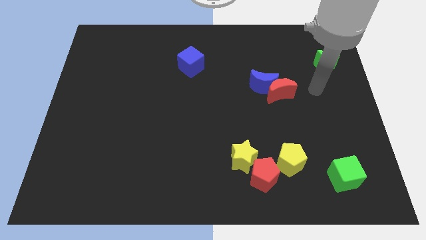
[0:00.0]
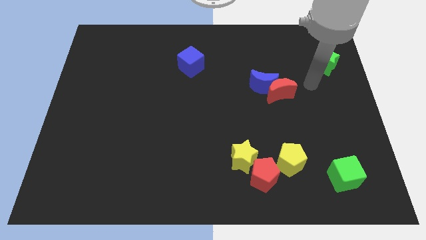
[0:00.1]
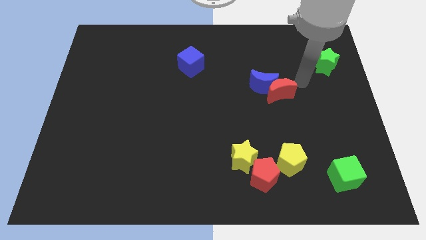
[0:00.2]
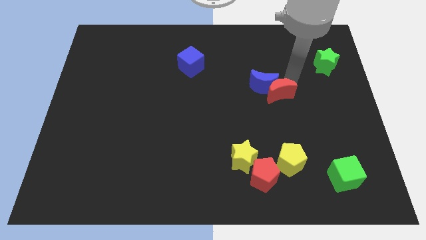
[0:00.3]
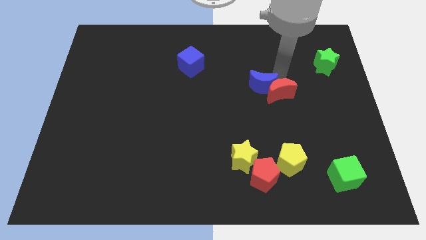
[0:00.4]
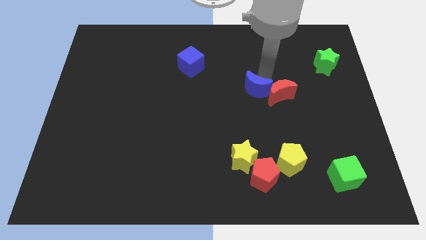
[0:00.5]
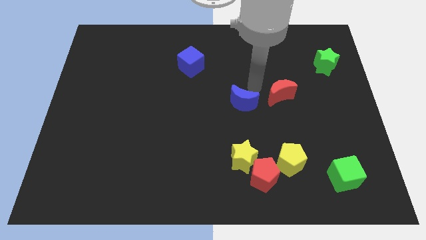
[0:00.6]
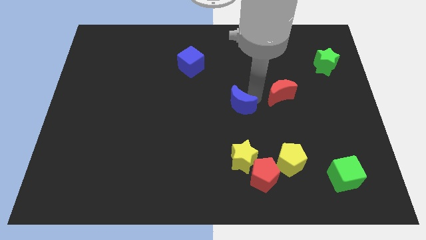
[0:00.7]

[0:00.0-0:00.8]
pull the red moon apart from the blue moon

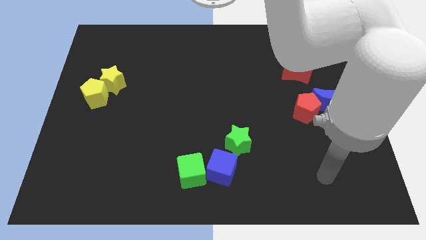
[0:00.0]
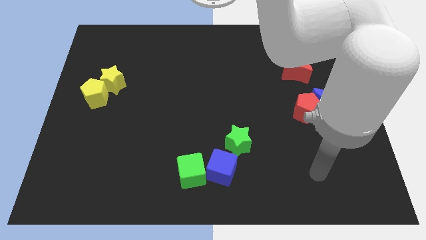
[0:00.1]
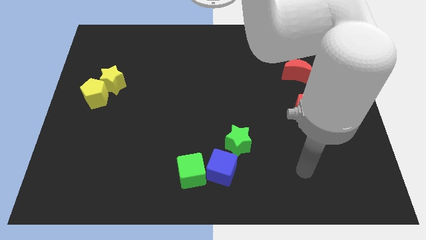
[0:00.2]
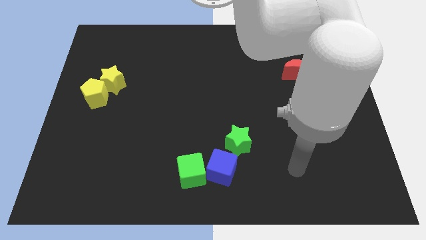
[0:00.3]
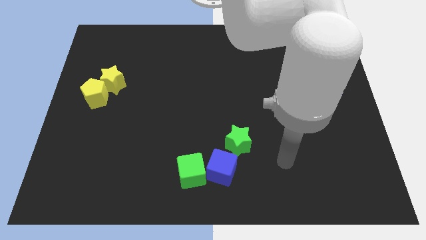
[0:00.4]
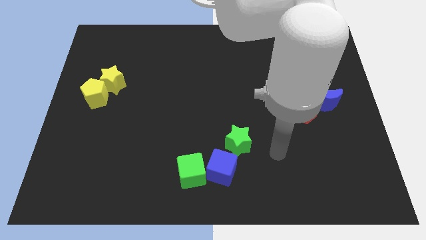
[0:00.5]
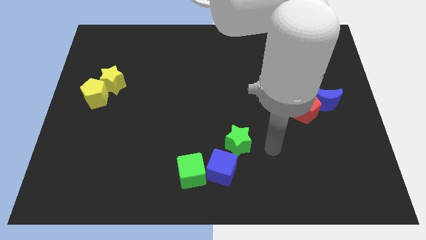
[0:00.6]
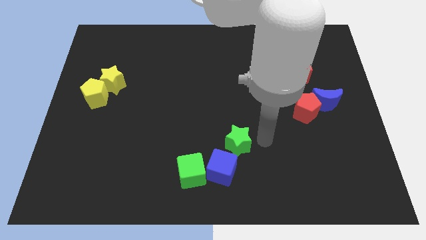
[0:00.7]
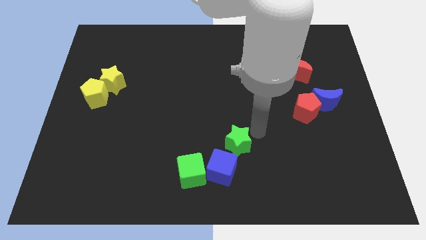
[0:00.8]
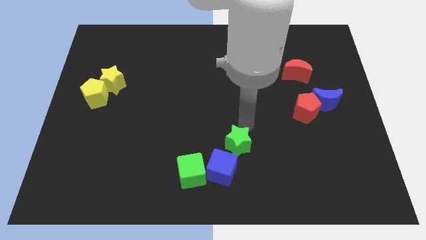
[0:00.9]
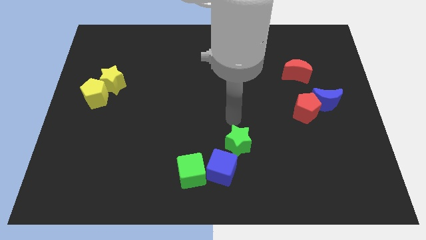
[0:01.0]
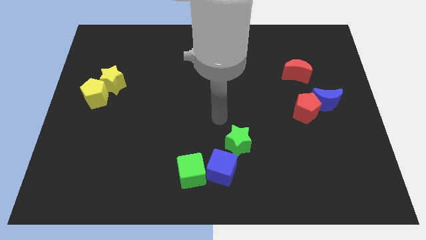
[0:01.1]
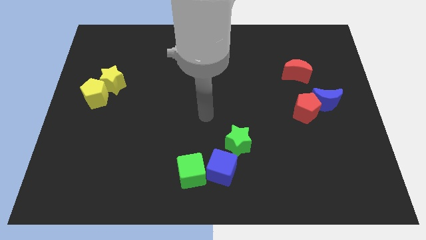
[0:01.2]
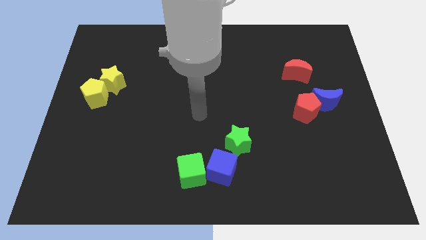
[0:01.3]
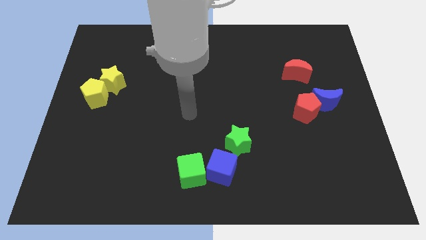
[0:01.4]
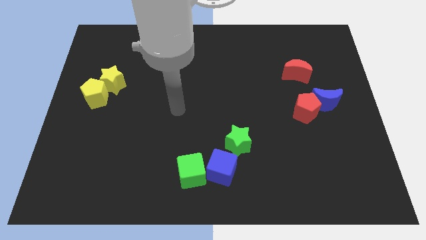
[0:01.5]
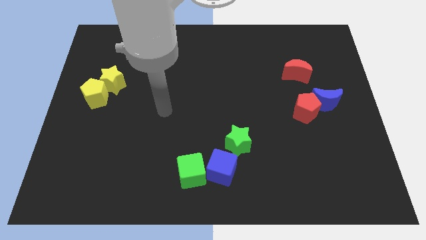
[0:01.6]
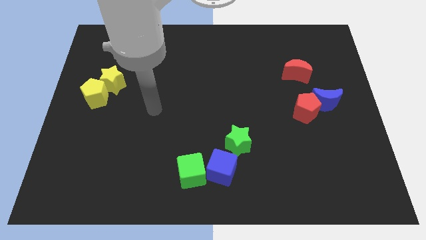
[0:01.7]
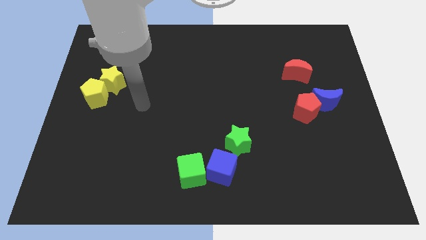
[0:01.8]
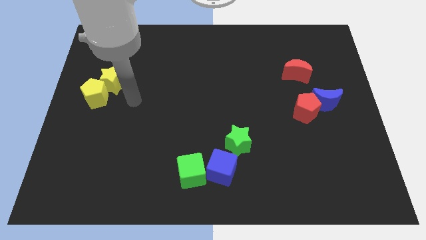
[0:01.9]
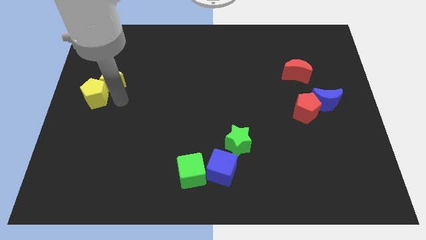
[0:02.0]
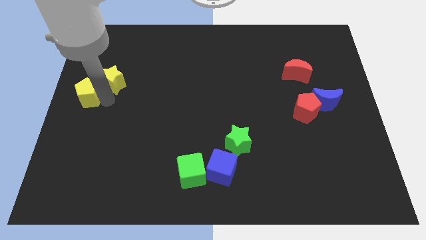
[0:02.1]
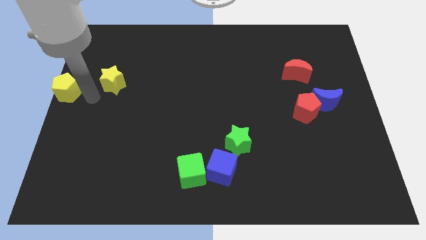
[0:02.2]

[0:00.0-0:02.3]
pull the yellow star apart from the yellow pentagon

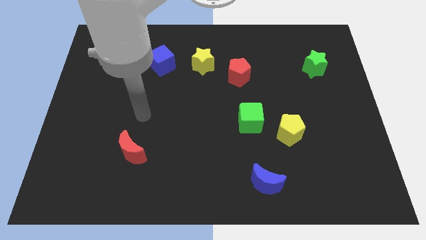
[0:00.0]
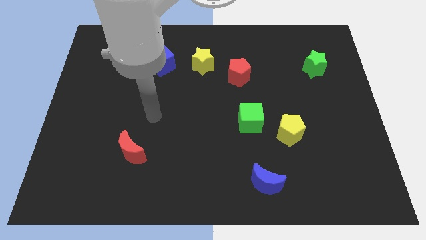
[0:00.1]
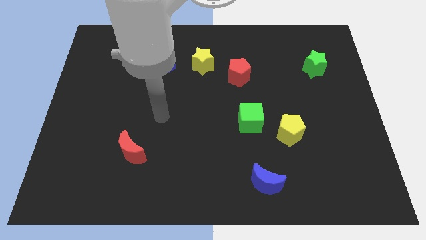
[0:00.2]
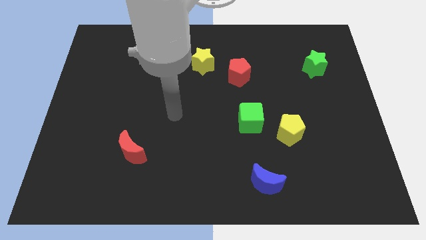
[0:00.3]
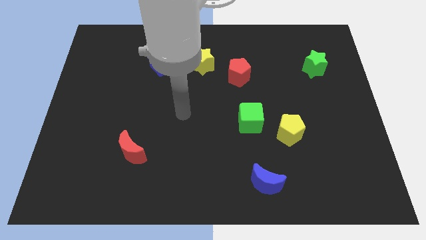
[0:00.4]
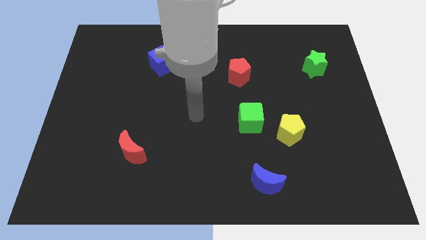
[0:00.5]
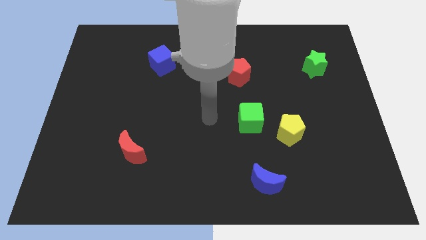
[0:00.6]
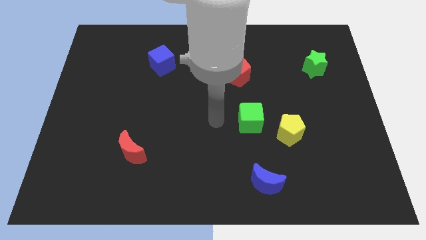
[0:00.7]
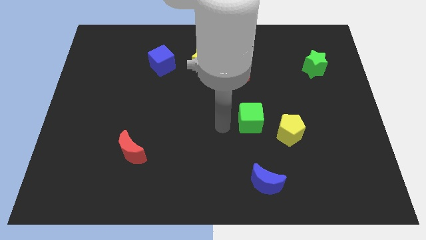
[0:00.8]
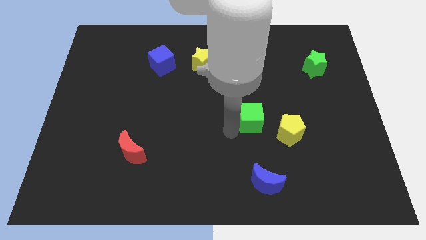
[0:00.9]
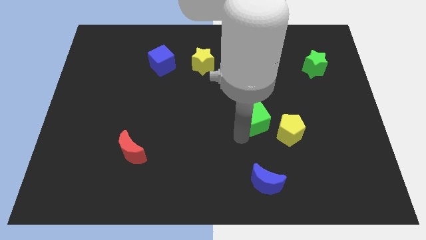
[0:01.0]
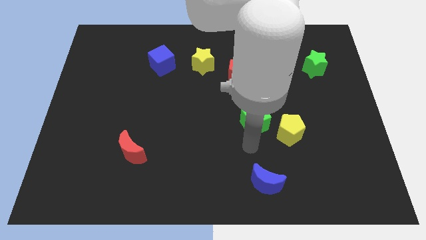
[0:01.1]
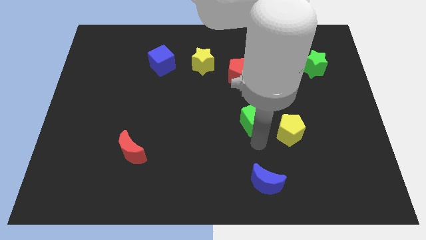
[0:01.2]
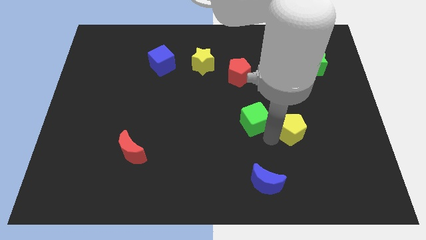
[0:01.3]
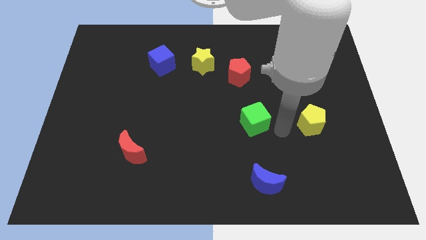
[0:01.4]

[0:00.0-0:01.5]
separate the green cube from the yellow pentagon

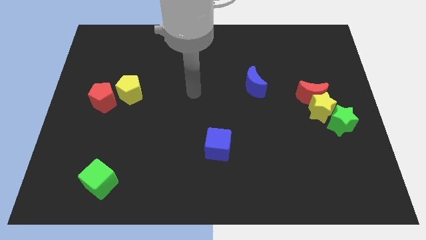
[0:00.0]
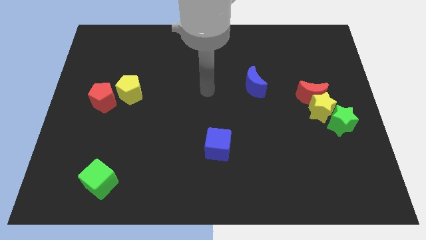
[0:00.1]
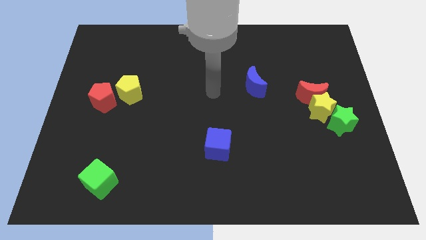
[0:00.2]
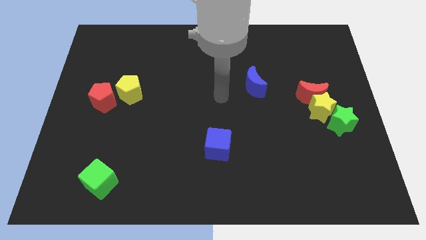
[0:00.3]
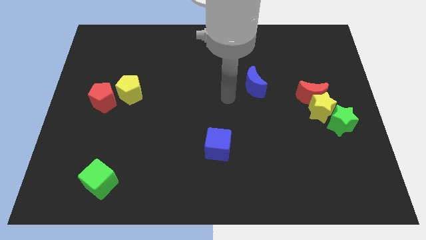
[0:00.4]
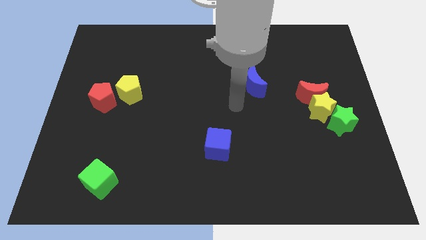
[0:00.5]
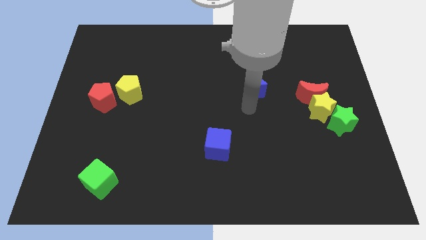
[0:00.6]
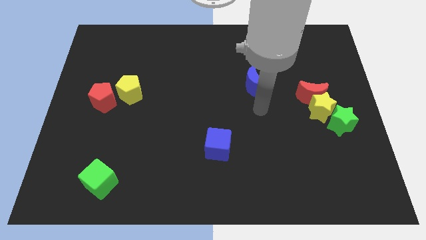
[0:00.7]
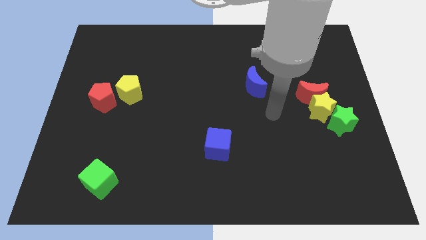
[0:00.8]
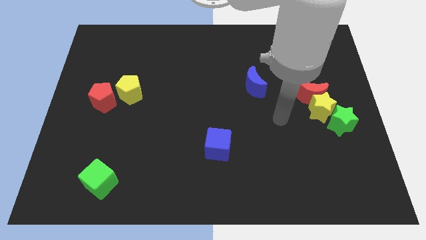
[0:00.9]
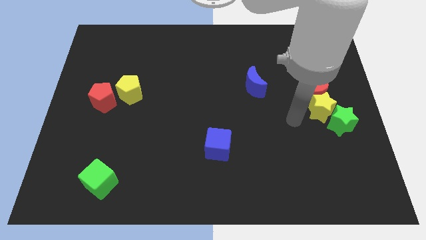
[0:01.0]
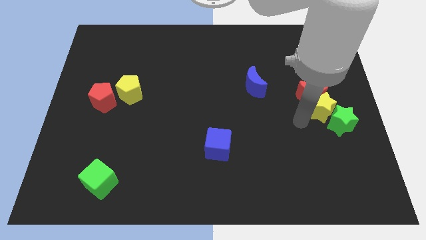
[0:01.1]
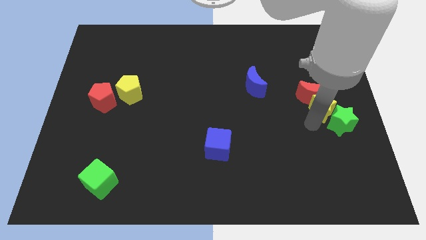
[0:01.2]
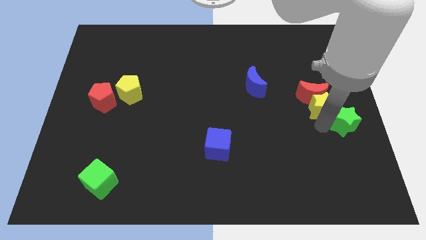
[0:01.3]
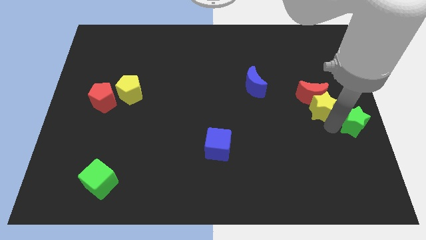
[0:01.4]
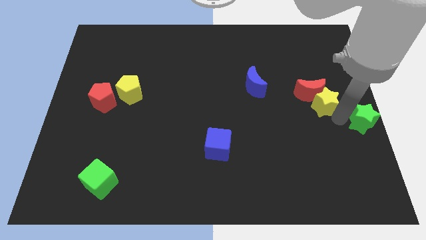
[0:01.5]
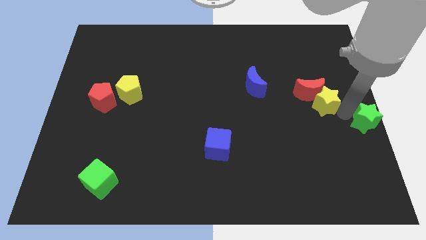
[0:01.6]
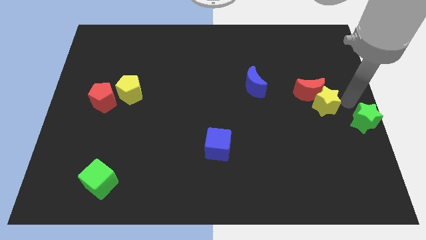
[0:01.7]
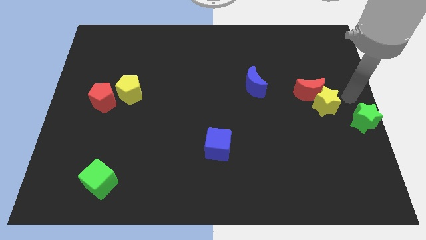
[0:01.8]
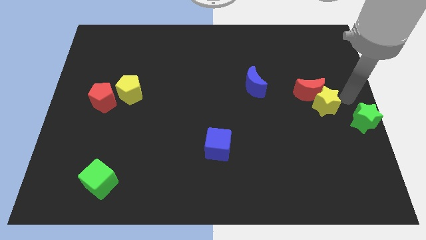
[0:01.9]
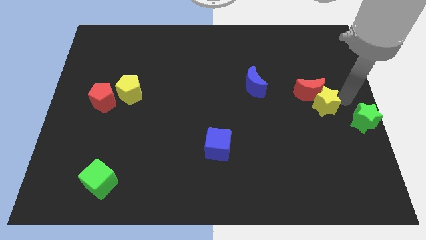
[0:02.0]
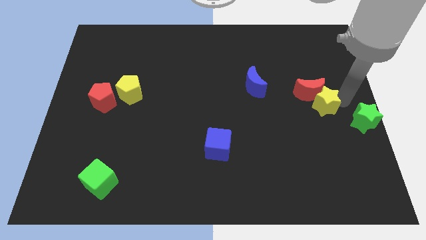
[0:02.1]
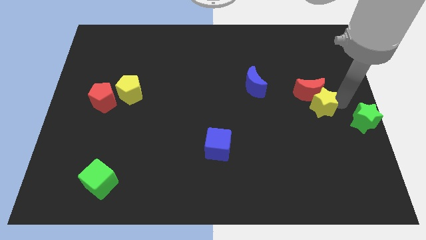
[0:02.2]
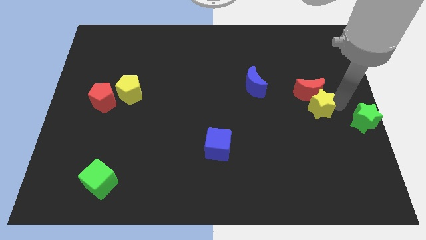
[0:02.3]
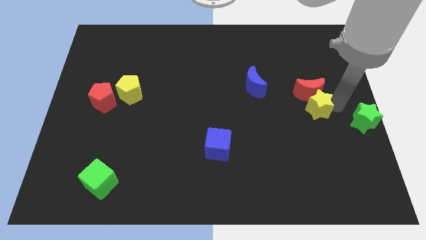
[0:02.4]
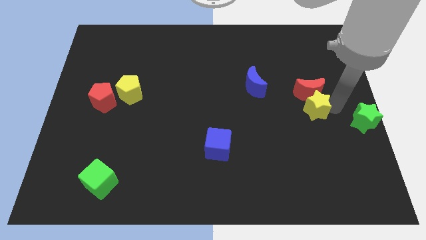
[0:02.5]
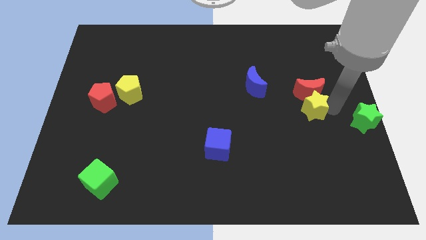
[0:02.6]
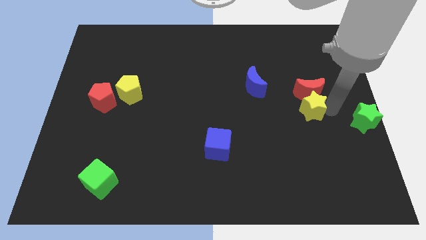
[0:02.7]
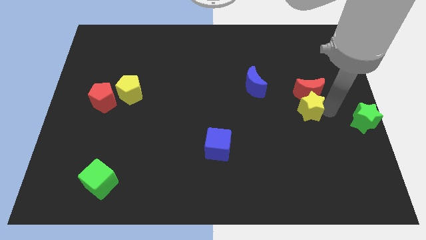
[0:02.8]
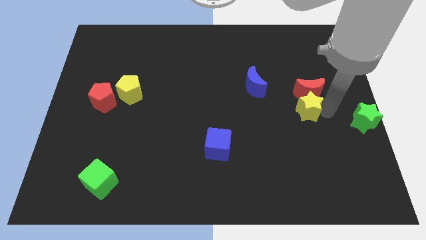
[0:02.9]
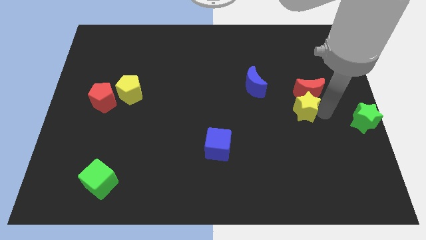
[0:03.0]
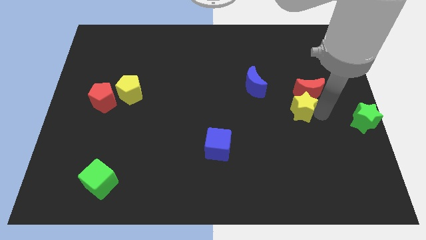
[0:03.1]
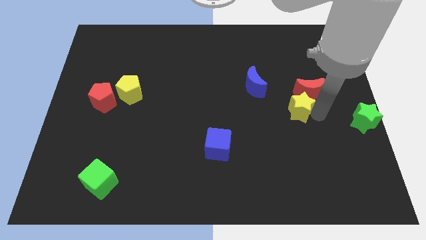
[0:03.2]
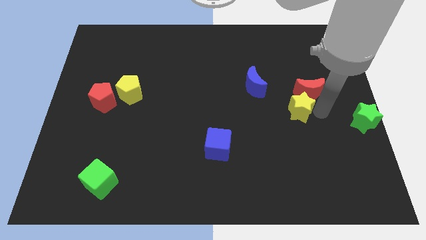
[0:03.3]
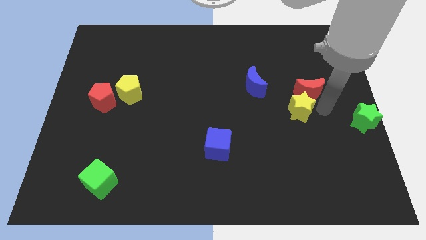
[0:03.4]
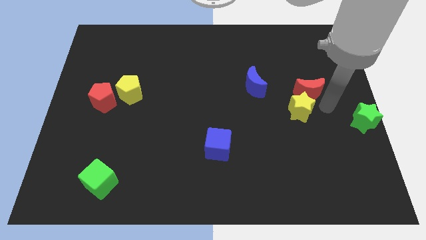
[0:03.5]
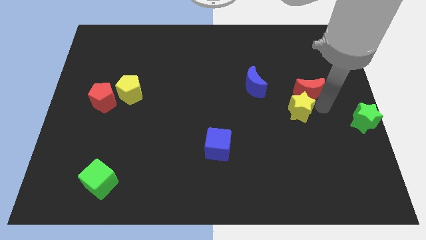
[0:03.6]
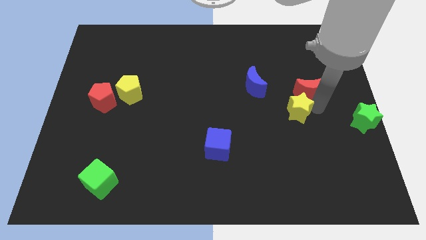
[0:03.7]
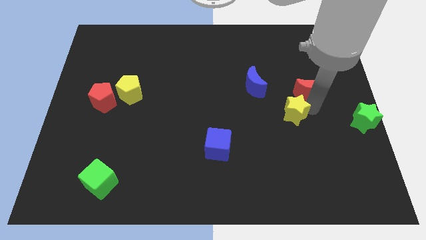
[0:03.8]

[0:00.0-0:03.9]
separate the yellow star from the red moon and green star

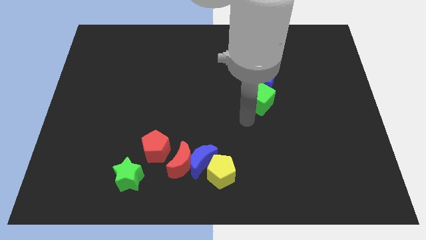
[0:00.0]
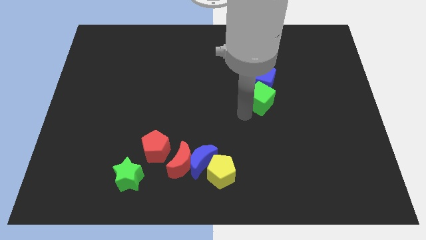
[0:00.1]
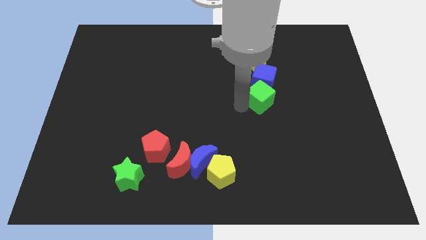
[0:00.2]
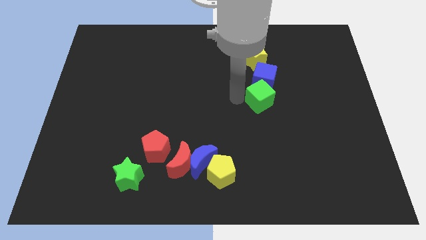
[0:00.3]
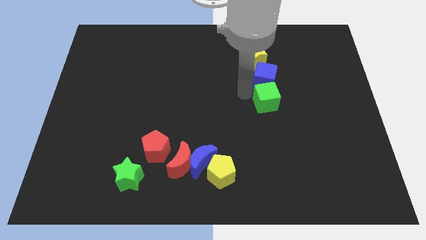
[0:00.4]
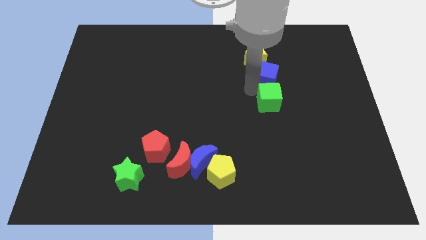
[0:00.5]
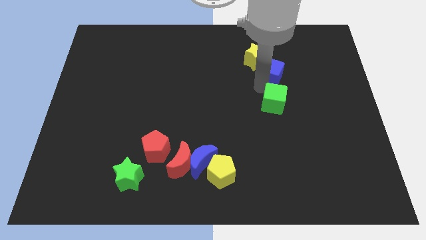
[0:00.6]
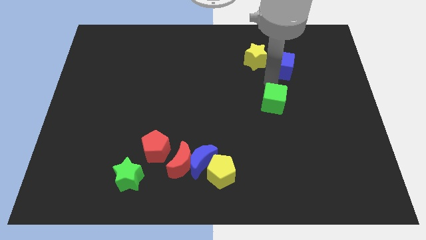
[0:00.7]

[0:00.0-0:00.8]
separate the green cube from the blue cube

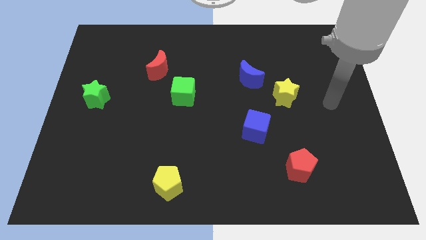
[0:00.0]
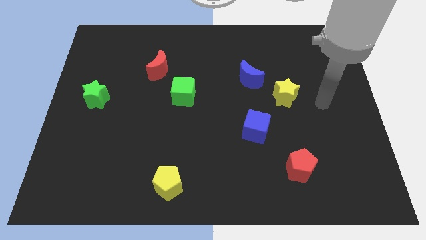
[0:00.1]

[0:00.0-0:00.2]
separate the blue moon from the yellow star
